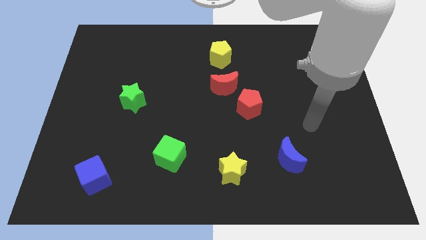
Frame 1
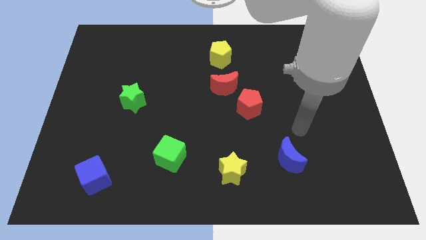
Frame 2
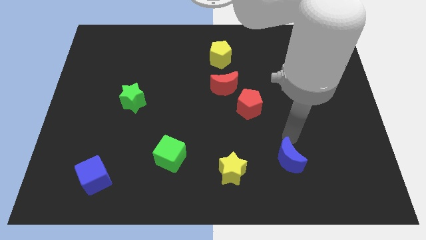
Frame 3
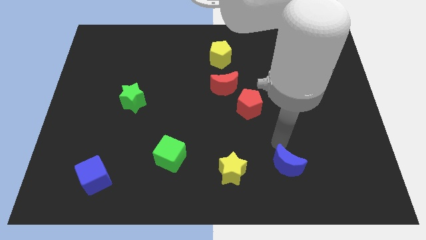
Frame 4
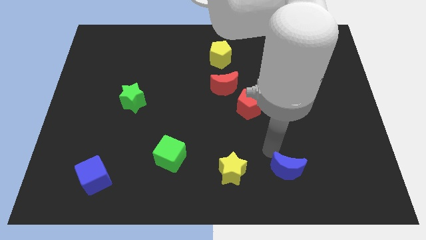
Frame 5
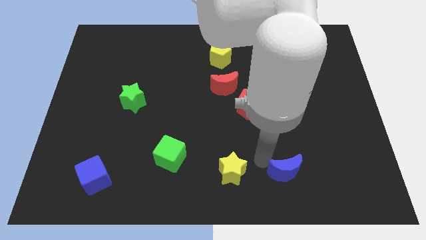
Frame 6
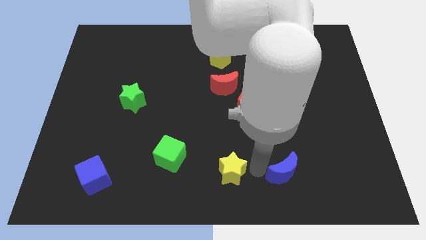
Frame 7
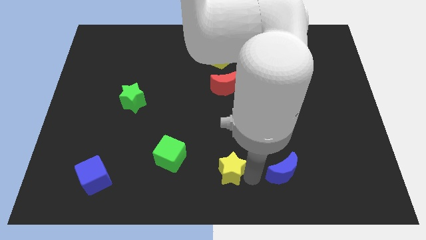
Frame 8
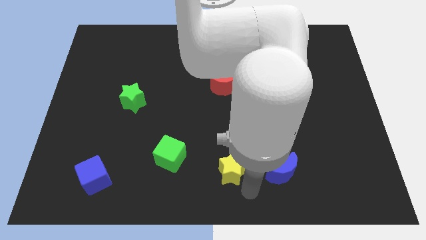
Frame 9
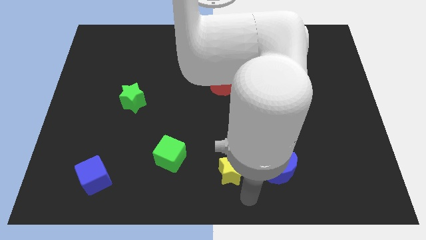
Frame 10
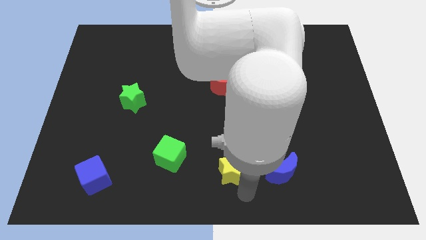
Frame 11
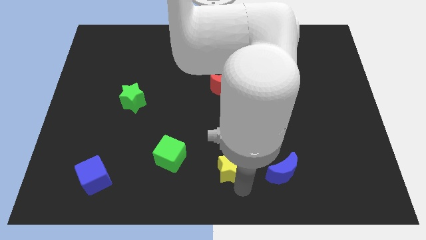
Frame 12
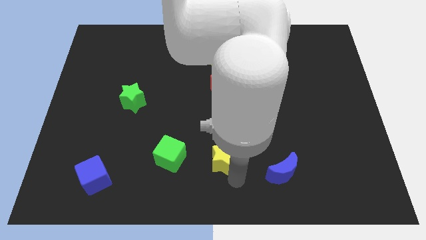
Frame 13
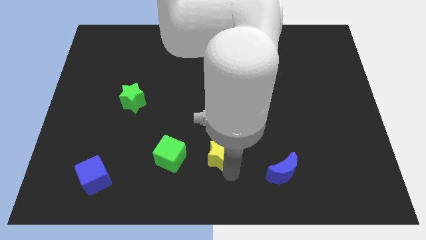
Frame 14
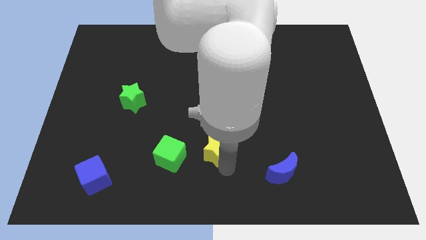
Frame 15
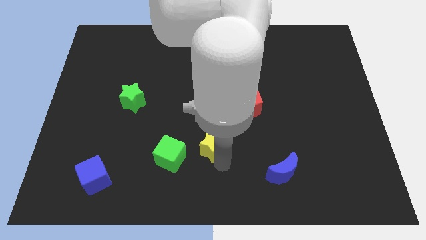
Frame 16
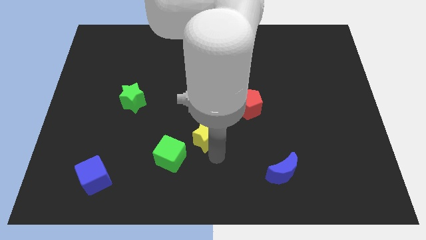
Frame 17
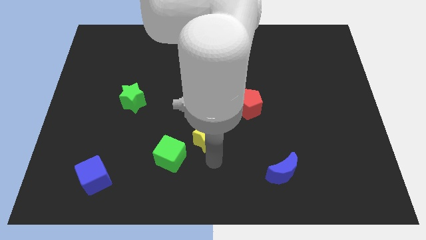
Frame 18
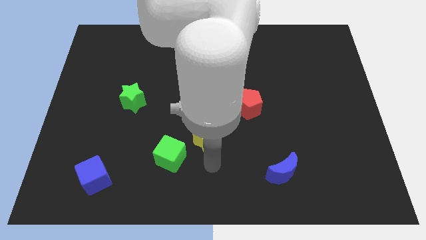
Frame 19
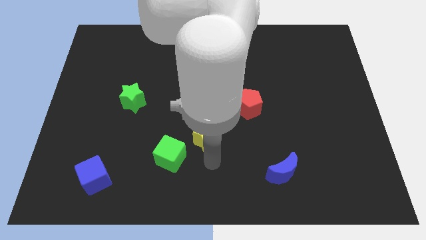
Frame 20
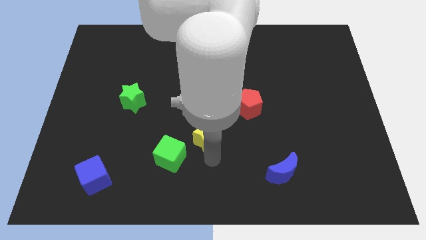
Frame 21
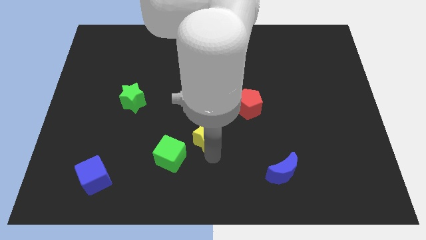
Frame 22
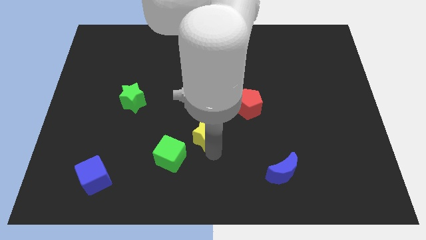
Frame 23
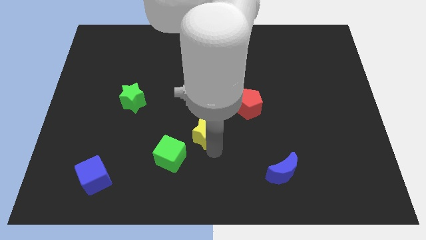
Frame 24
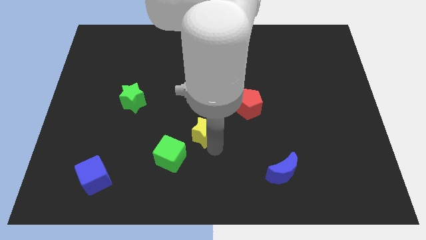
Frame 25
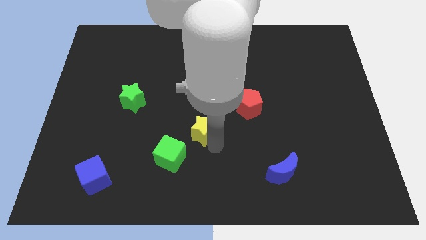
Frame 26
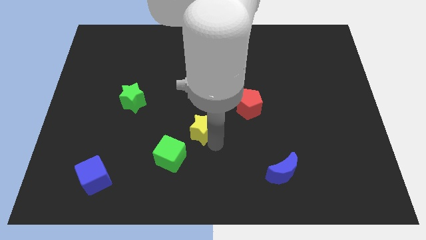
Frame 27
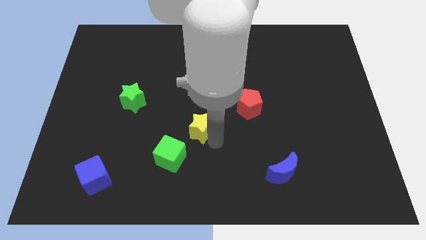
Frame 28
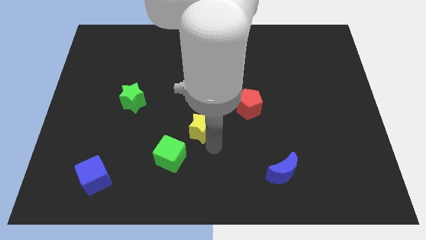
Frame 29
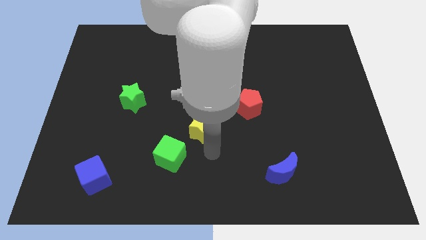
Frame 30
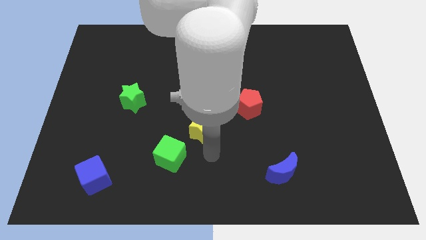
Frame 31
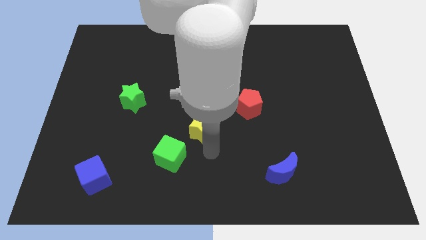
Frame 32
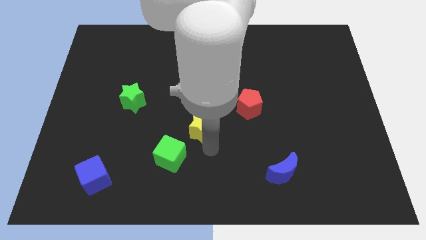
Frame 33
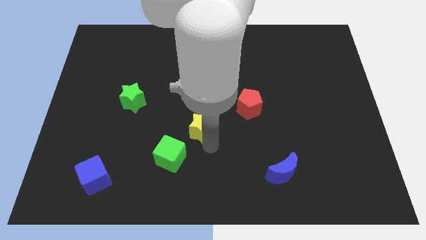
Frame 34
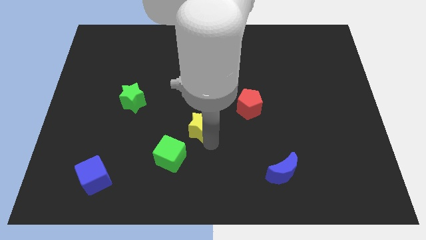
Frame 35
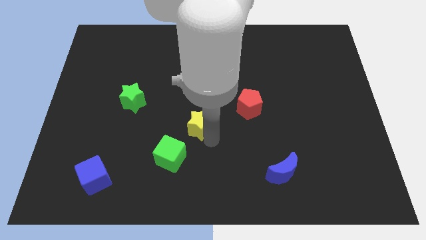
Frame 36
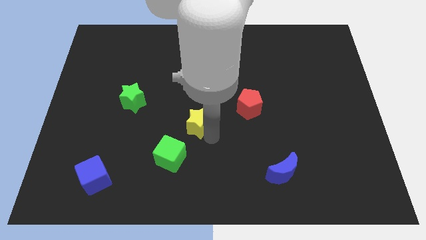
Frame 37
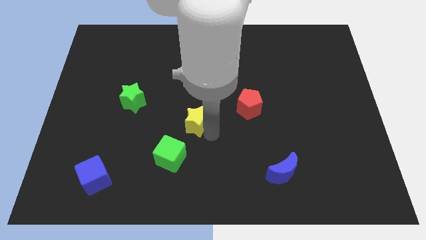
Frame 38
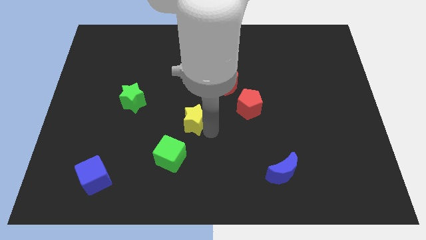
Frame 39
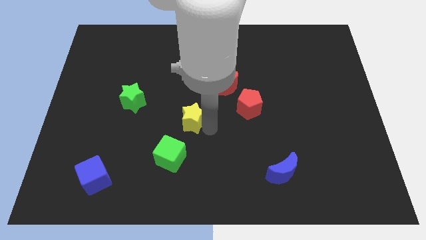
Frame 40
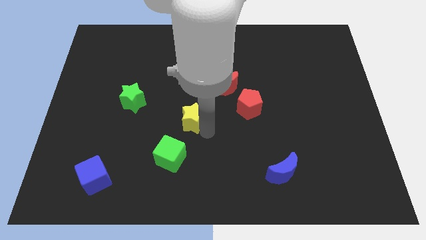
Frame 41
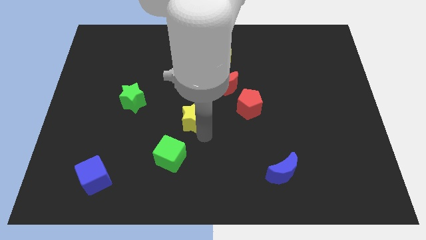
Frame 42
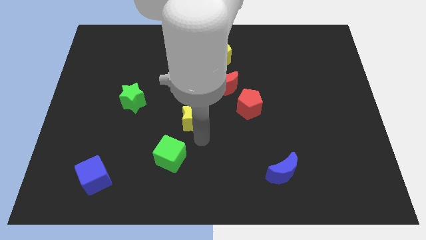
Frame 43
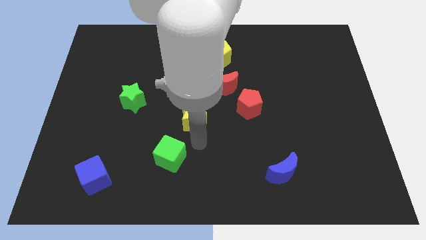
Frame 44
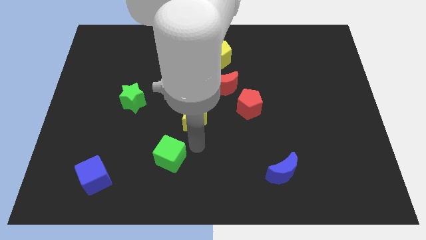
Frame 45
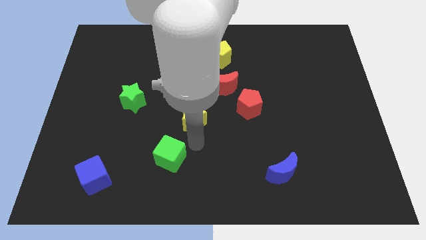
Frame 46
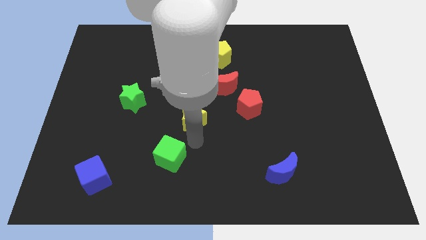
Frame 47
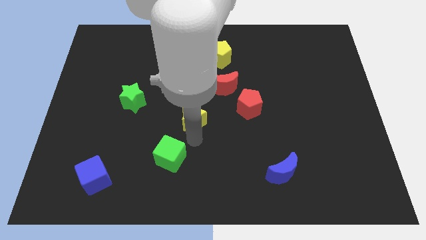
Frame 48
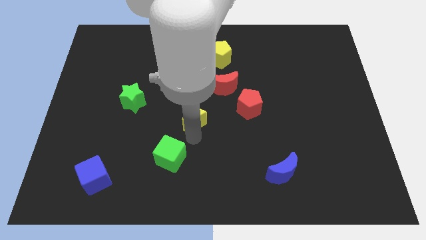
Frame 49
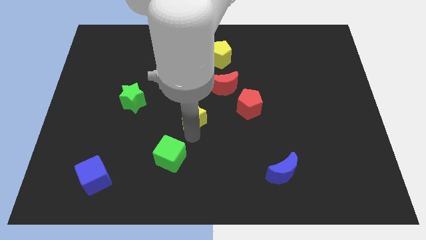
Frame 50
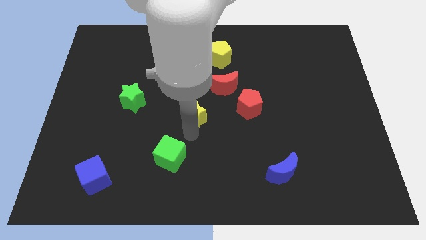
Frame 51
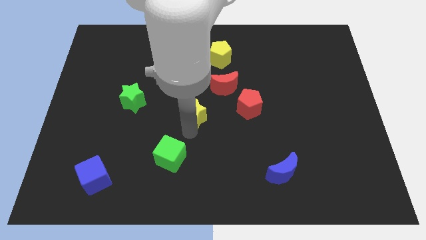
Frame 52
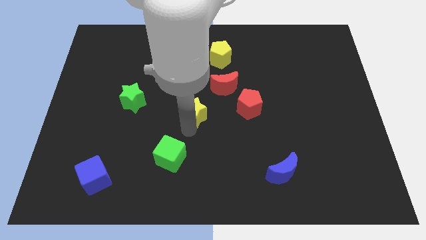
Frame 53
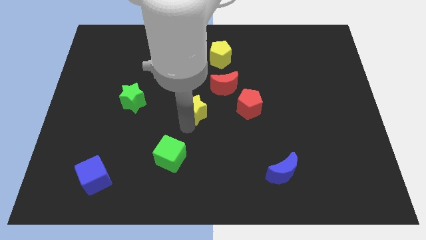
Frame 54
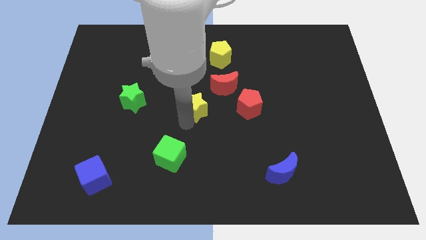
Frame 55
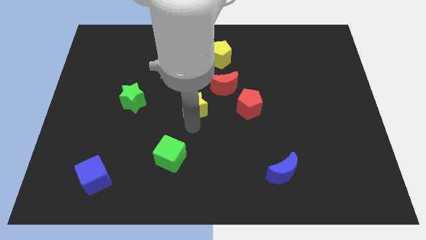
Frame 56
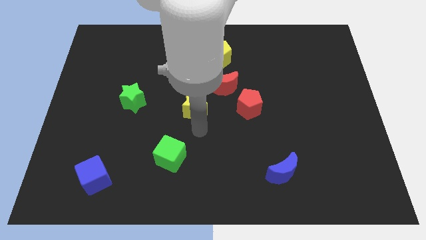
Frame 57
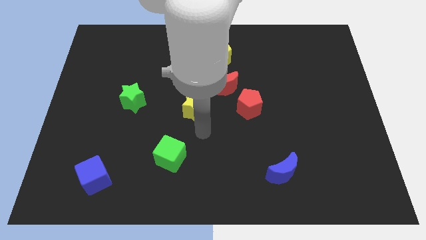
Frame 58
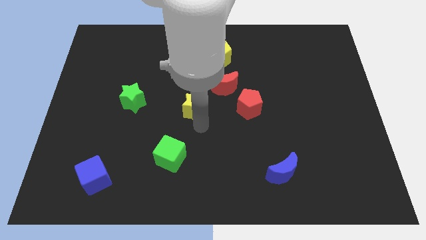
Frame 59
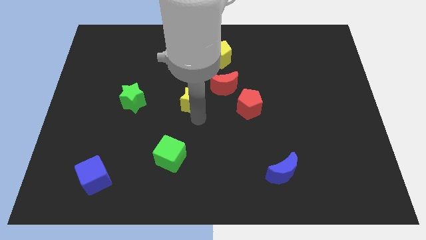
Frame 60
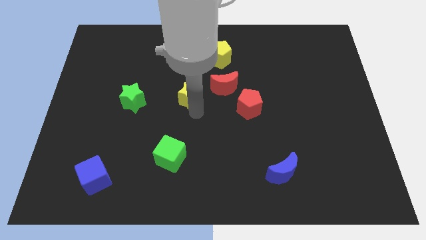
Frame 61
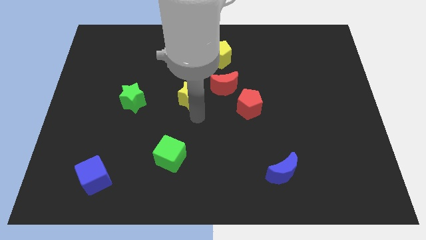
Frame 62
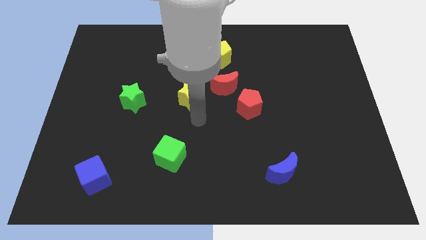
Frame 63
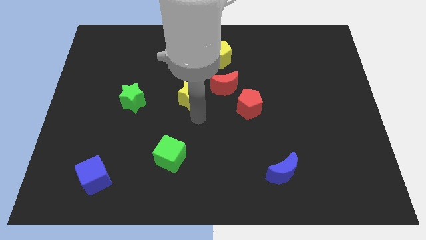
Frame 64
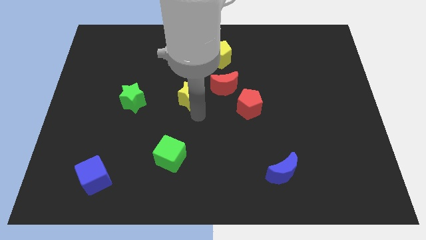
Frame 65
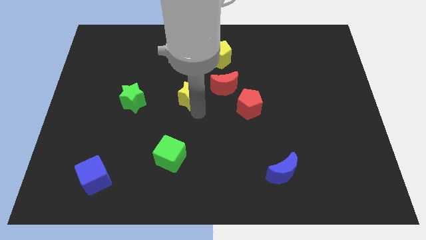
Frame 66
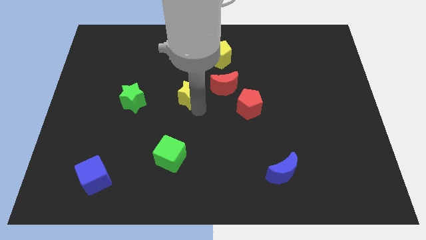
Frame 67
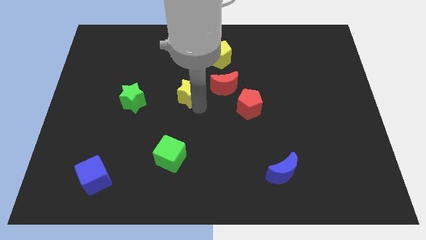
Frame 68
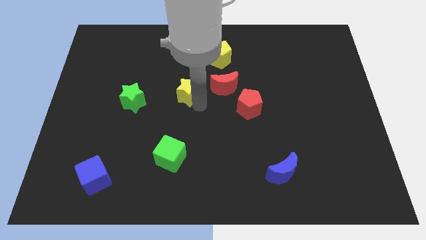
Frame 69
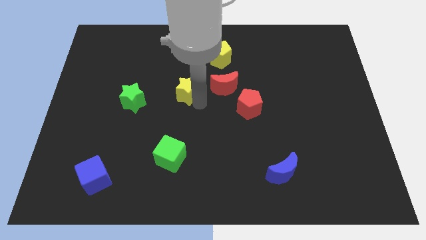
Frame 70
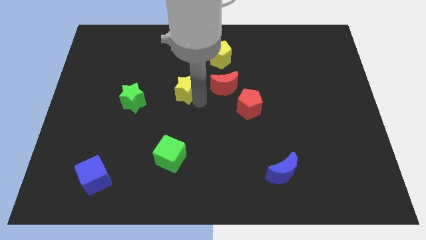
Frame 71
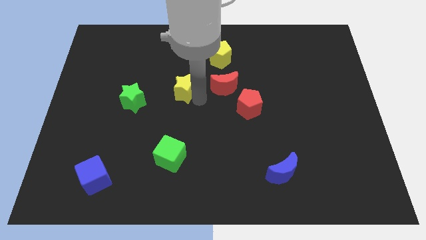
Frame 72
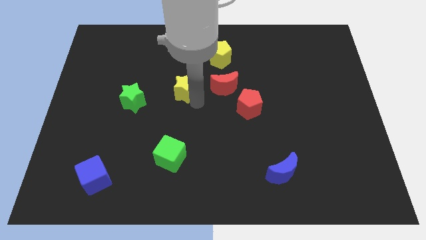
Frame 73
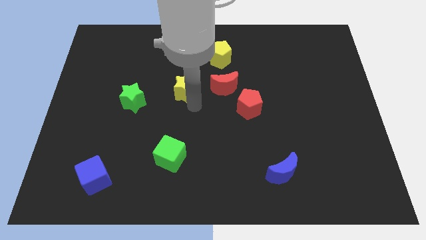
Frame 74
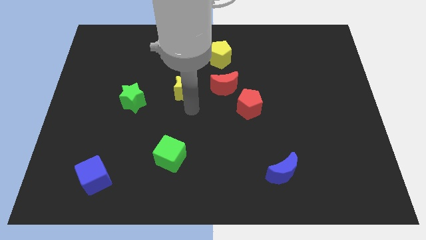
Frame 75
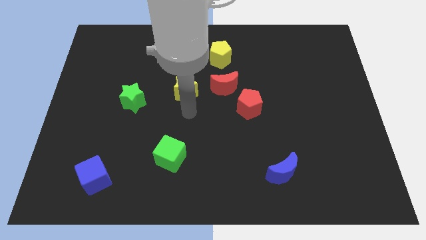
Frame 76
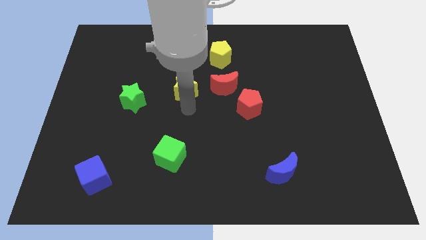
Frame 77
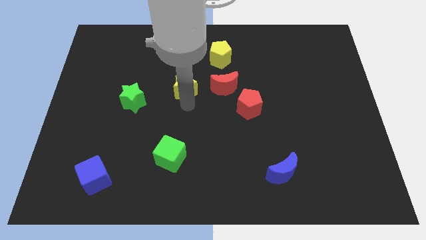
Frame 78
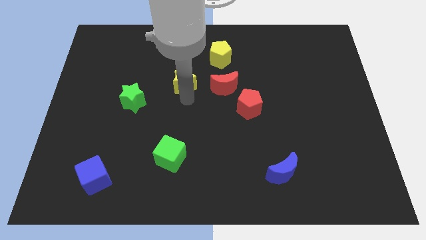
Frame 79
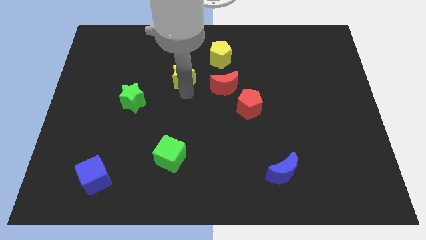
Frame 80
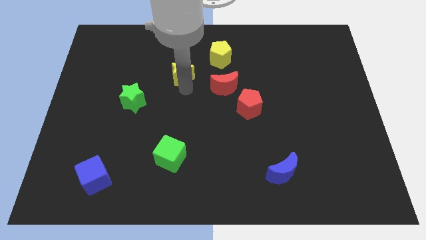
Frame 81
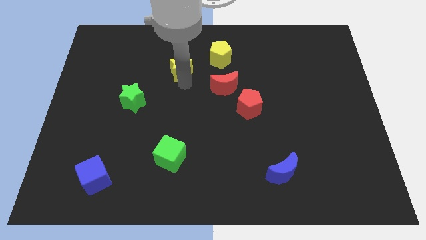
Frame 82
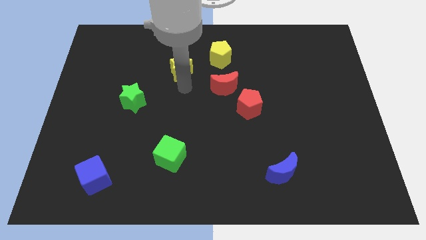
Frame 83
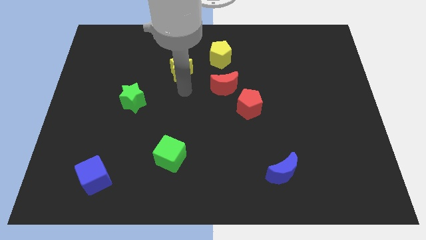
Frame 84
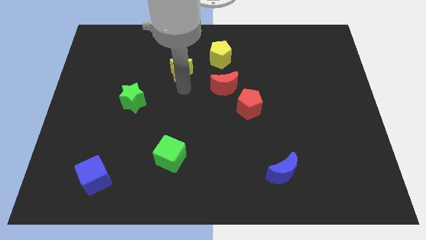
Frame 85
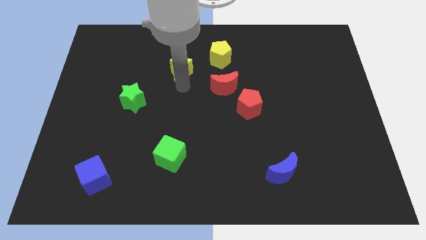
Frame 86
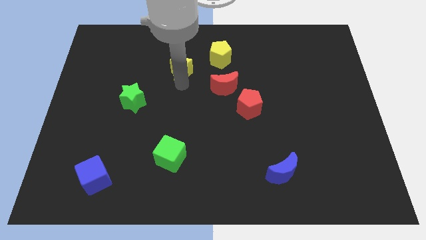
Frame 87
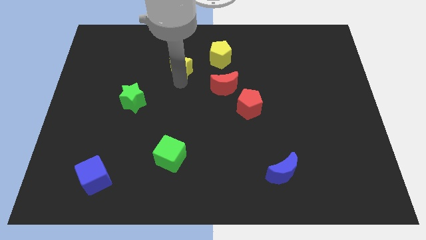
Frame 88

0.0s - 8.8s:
push the yellow star just left of the yellow pentagon
